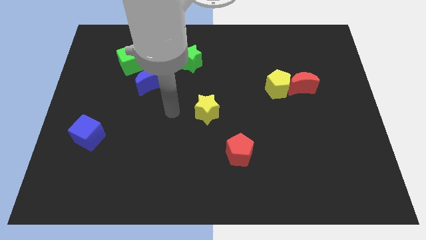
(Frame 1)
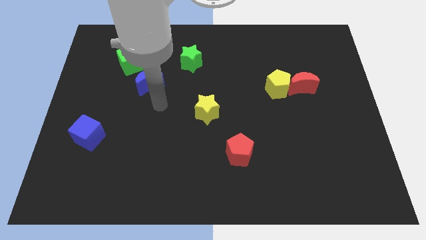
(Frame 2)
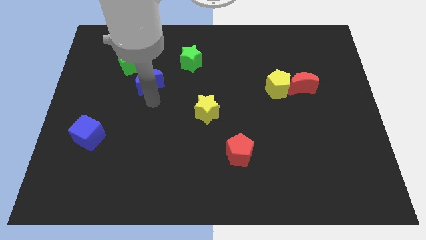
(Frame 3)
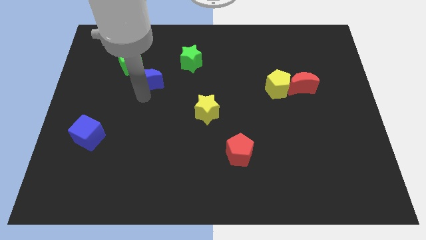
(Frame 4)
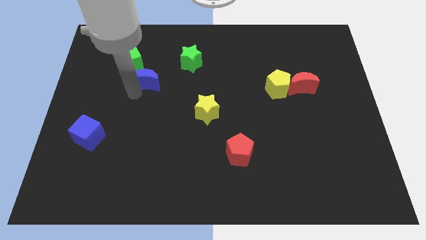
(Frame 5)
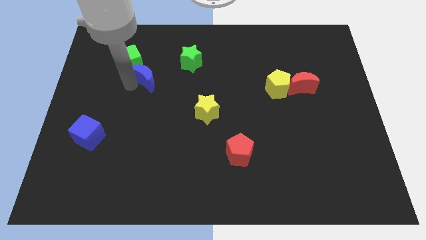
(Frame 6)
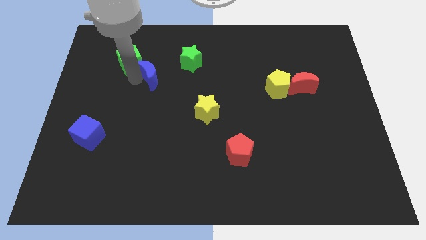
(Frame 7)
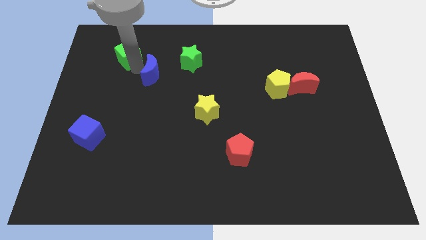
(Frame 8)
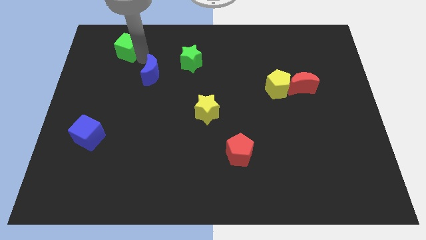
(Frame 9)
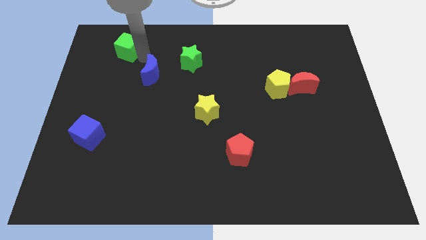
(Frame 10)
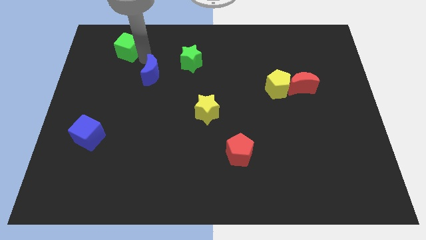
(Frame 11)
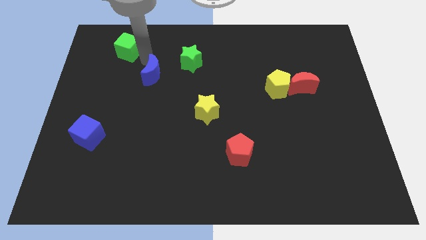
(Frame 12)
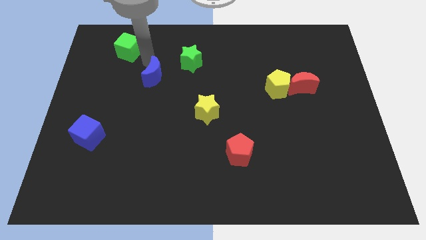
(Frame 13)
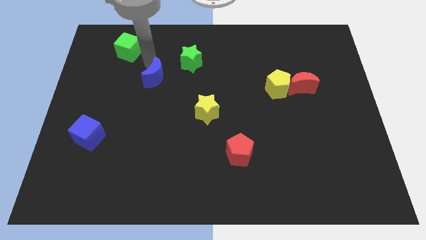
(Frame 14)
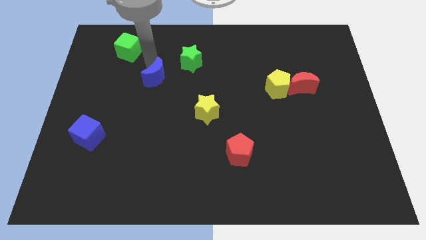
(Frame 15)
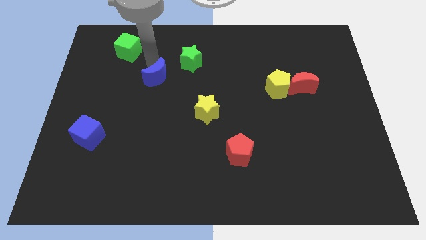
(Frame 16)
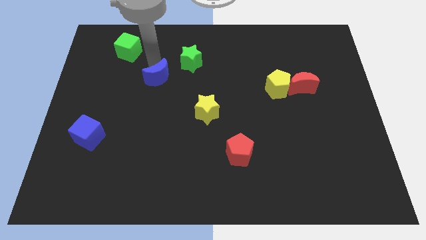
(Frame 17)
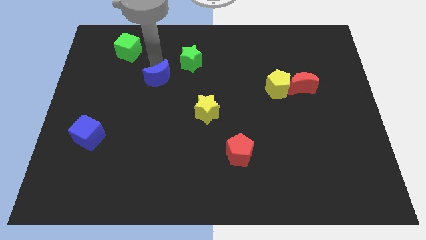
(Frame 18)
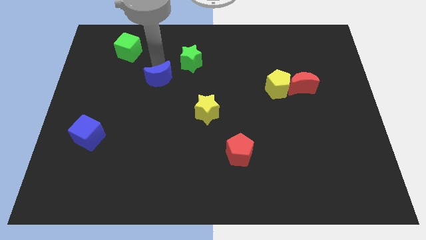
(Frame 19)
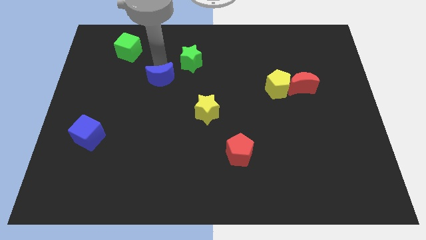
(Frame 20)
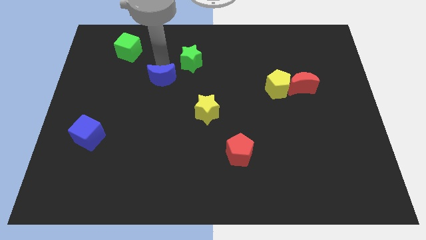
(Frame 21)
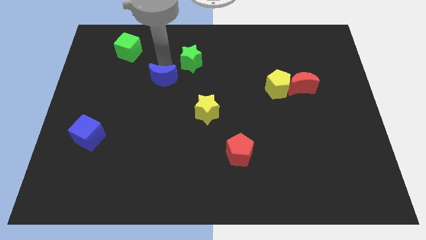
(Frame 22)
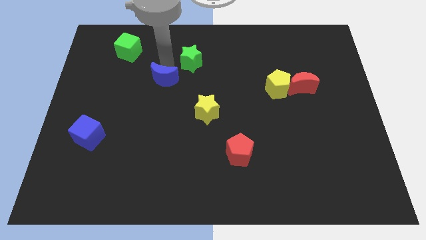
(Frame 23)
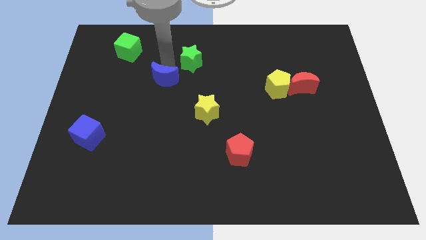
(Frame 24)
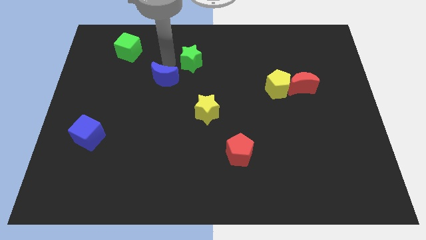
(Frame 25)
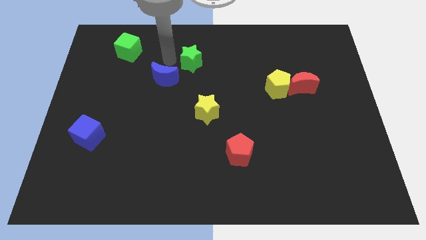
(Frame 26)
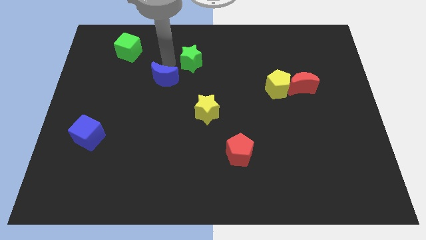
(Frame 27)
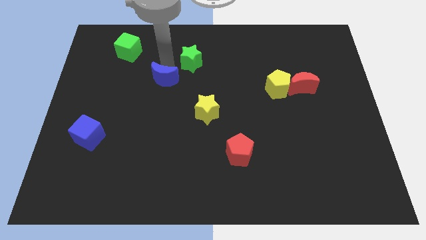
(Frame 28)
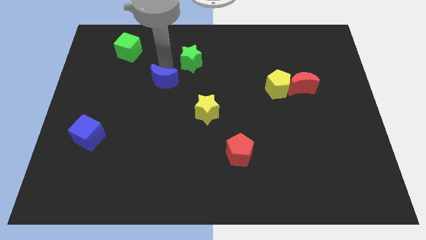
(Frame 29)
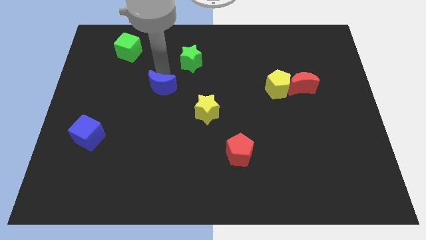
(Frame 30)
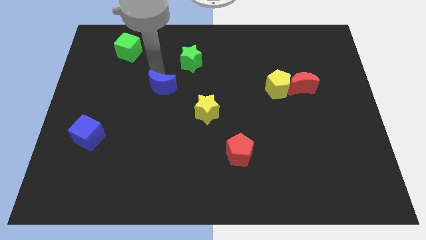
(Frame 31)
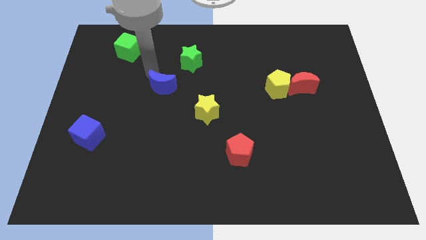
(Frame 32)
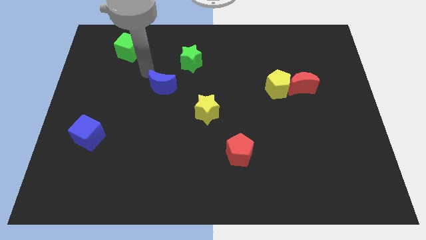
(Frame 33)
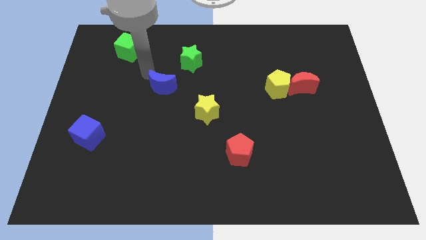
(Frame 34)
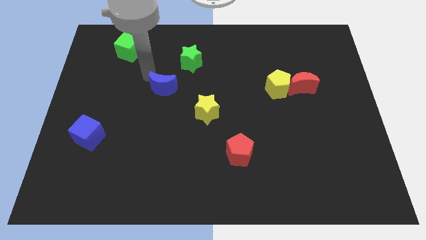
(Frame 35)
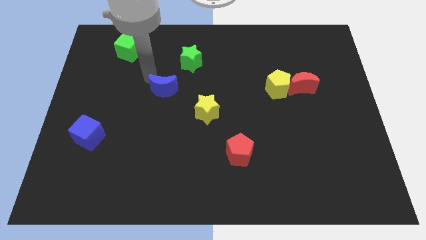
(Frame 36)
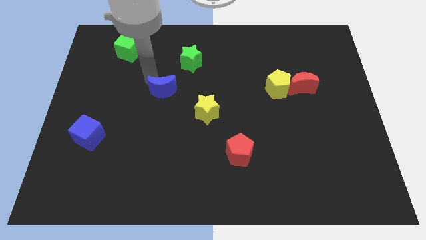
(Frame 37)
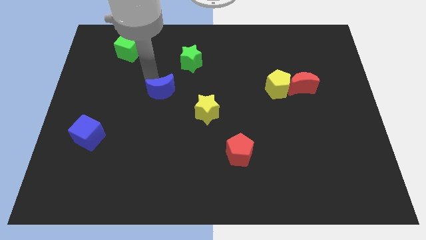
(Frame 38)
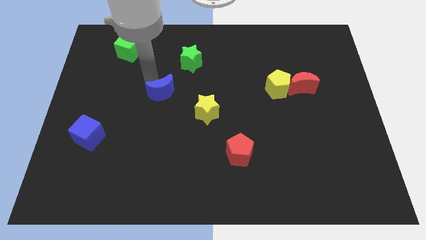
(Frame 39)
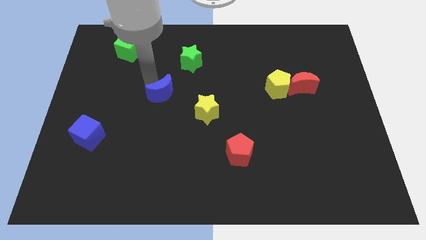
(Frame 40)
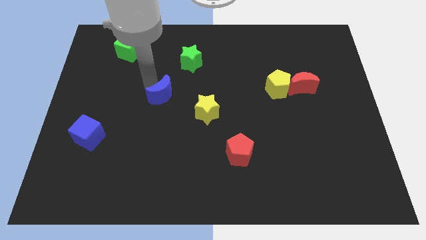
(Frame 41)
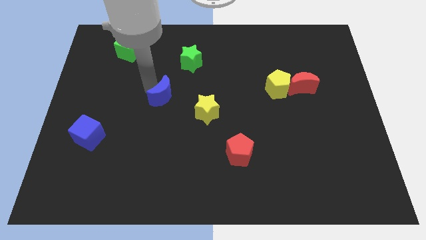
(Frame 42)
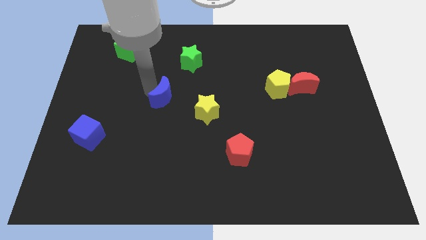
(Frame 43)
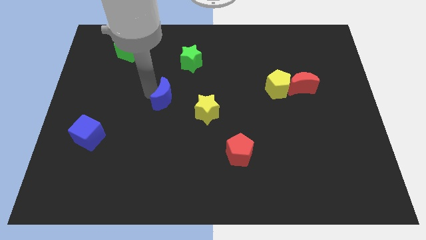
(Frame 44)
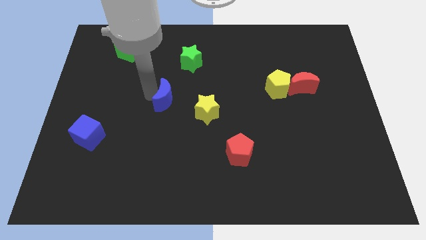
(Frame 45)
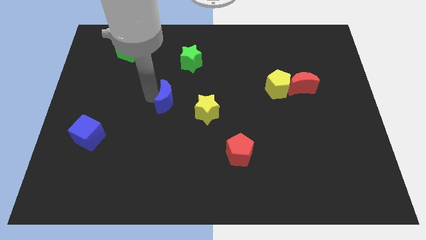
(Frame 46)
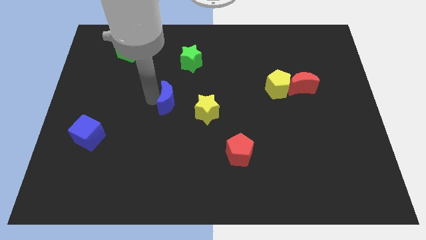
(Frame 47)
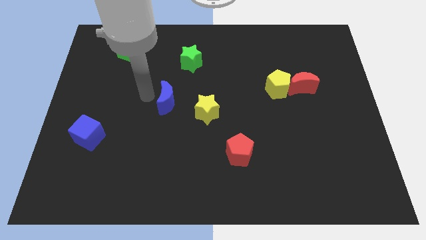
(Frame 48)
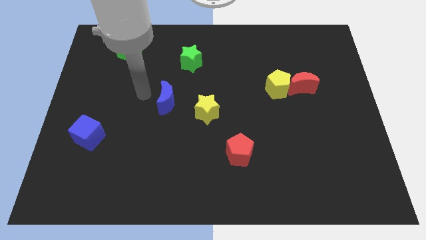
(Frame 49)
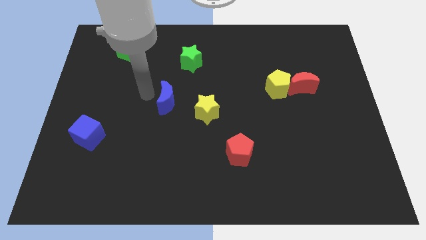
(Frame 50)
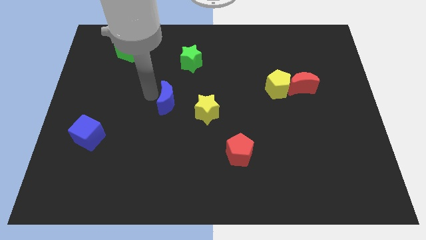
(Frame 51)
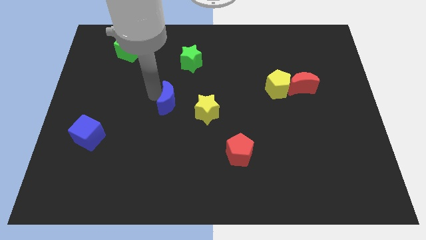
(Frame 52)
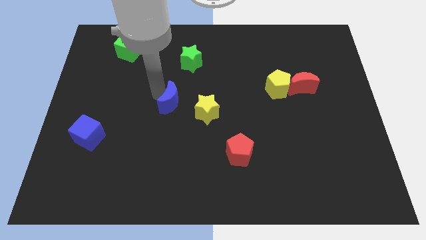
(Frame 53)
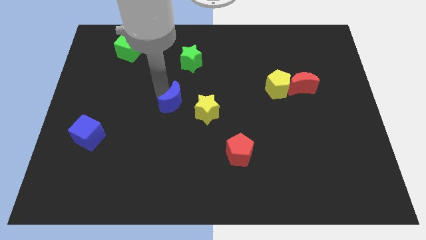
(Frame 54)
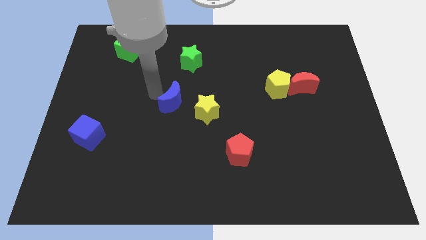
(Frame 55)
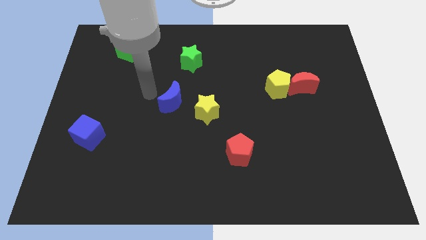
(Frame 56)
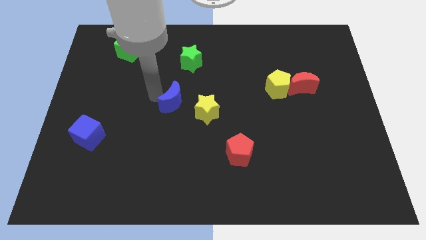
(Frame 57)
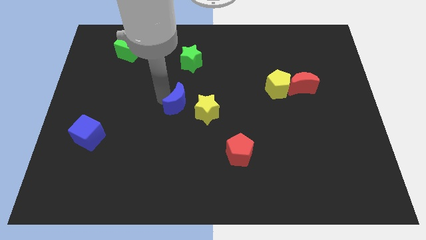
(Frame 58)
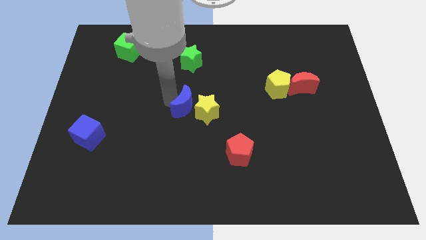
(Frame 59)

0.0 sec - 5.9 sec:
push the blue moon towards the yellow star

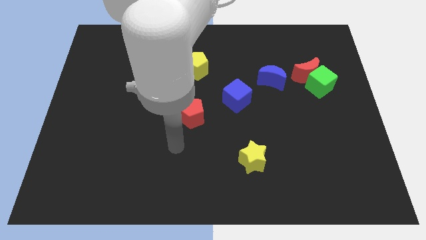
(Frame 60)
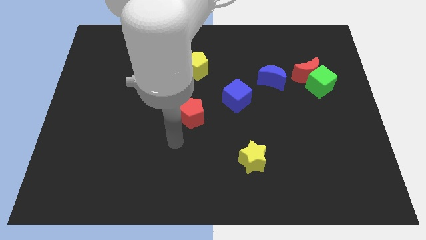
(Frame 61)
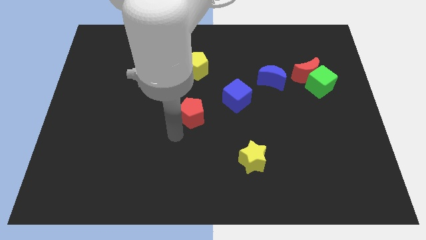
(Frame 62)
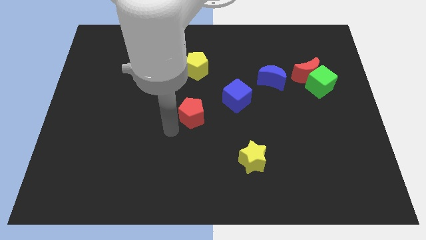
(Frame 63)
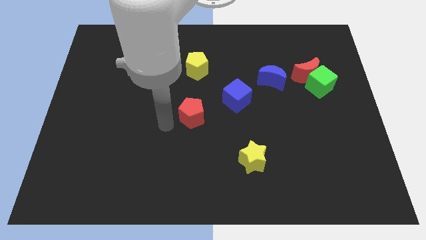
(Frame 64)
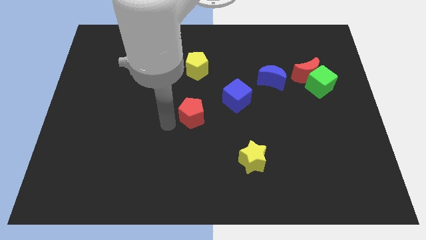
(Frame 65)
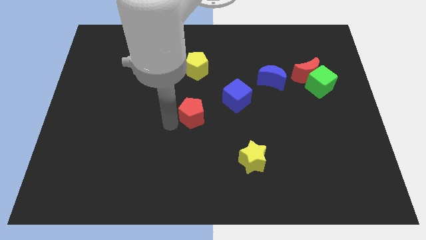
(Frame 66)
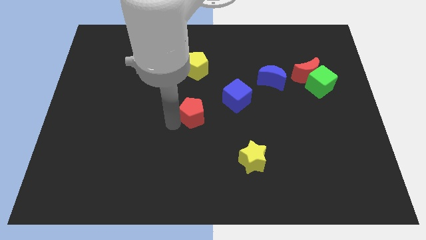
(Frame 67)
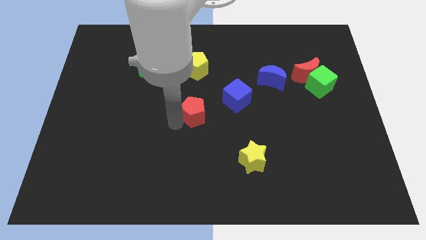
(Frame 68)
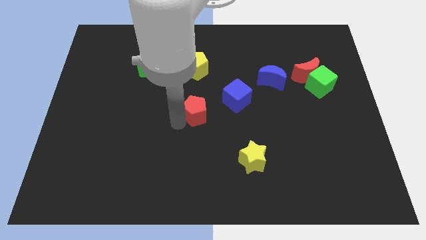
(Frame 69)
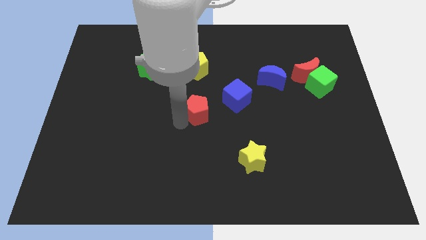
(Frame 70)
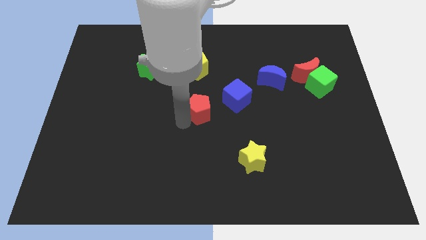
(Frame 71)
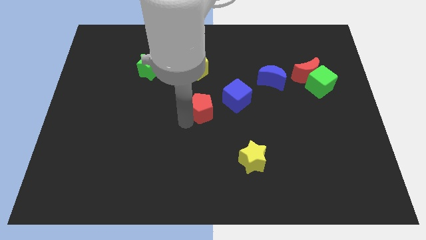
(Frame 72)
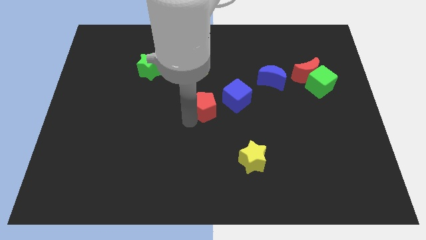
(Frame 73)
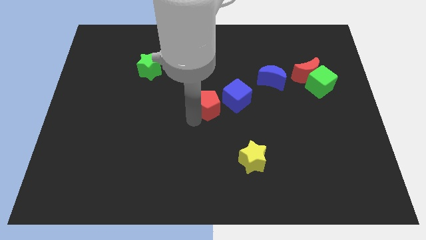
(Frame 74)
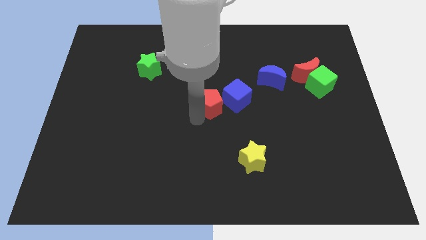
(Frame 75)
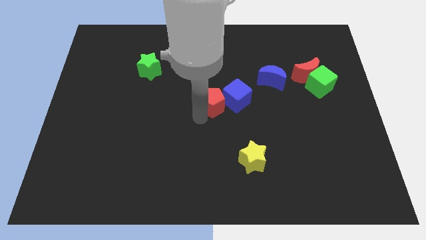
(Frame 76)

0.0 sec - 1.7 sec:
move the red pentagon close to the blue cube

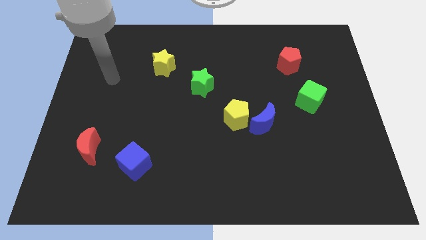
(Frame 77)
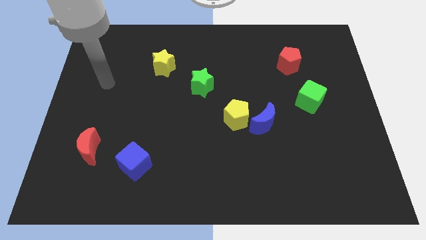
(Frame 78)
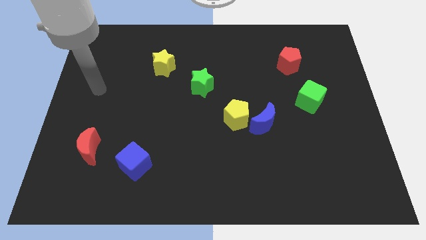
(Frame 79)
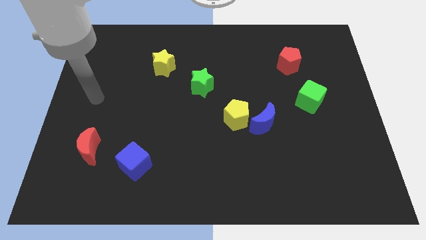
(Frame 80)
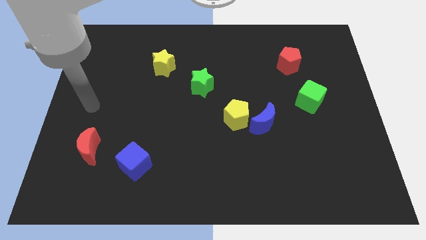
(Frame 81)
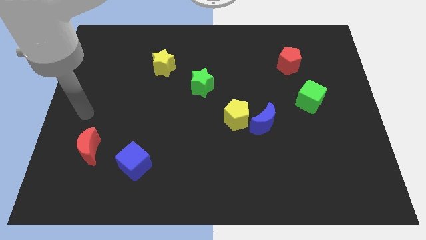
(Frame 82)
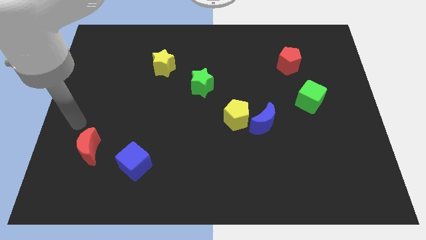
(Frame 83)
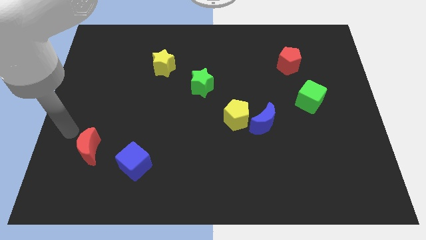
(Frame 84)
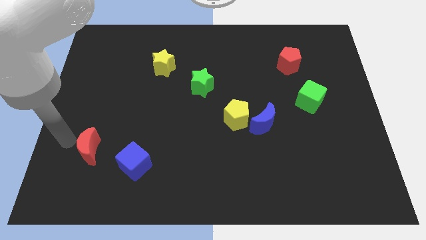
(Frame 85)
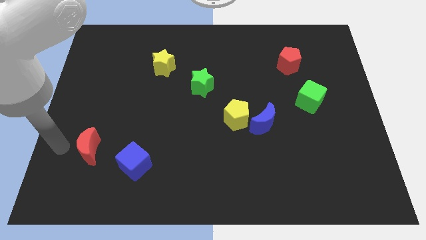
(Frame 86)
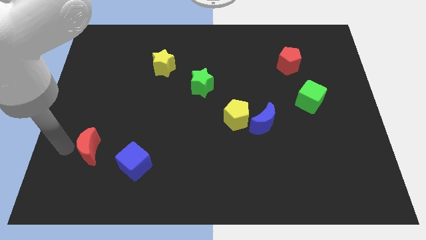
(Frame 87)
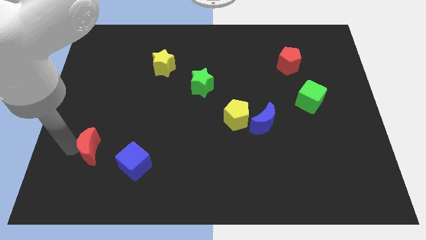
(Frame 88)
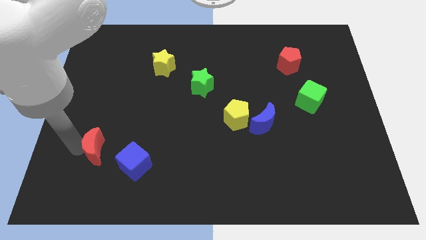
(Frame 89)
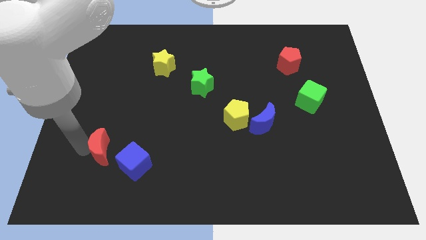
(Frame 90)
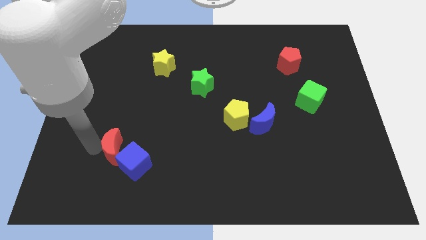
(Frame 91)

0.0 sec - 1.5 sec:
put the red moon to the blue cube
